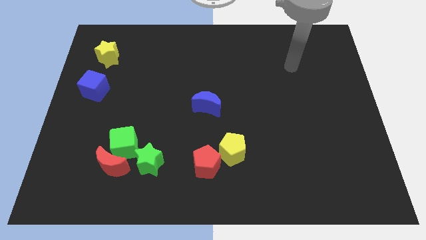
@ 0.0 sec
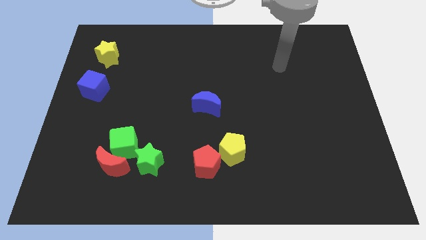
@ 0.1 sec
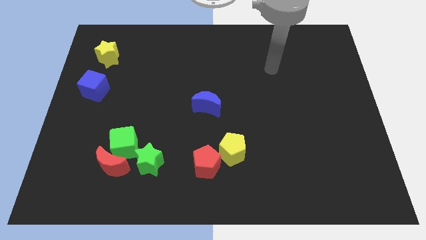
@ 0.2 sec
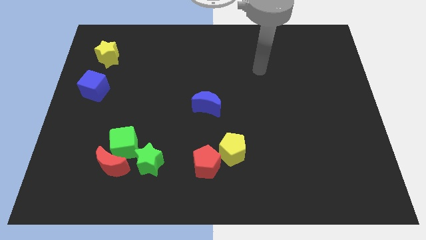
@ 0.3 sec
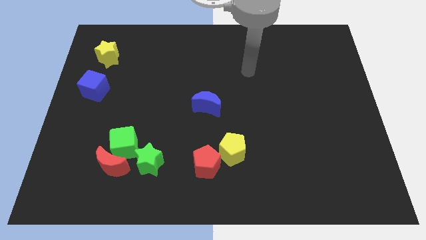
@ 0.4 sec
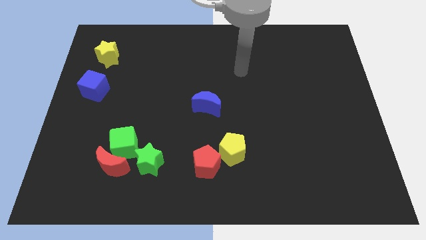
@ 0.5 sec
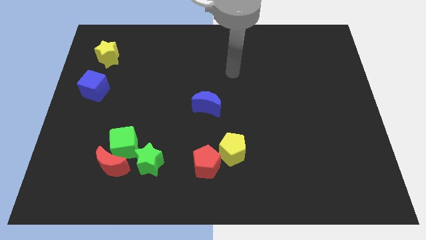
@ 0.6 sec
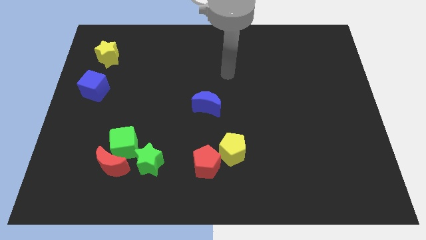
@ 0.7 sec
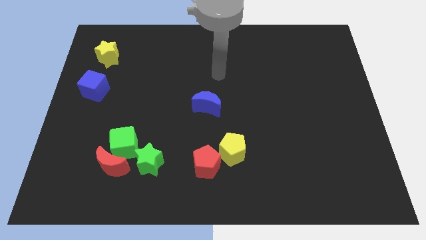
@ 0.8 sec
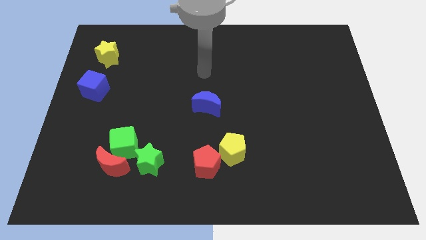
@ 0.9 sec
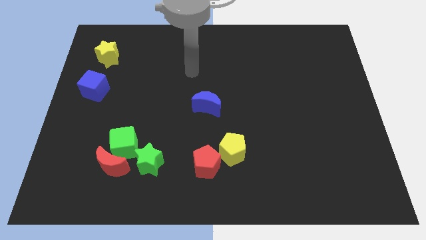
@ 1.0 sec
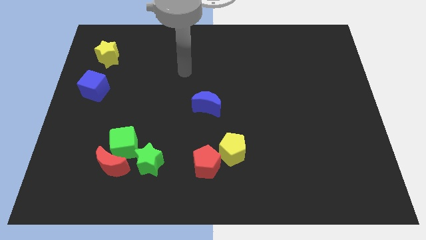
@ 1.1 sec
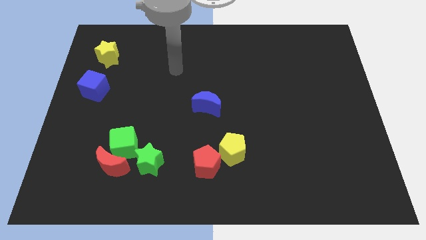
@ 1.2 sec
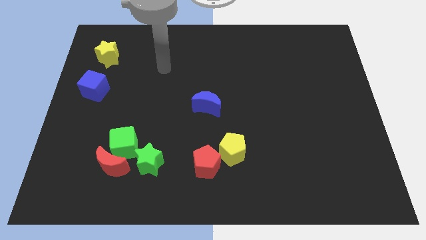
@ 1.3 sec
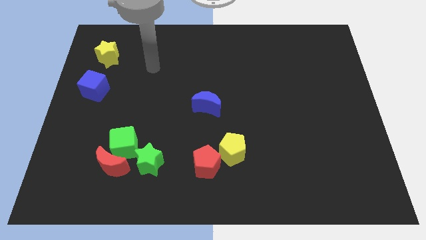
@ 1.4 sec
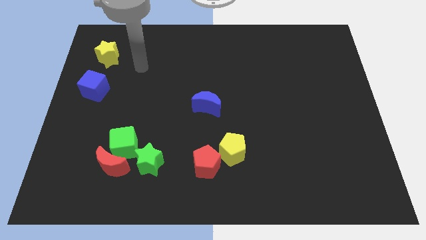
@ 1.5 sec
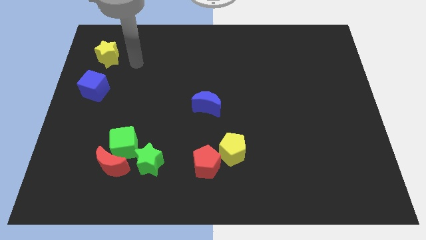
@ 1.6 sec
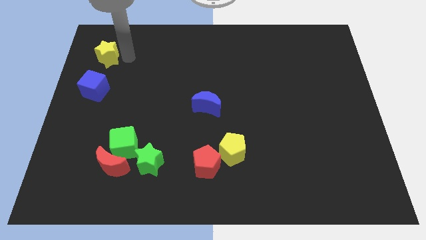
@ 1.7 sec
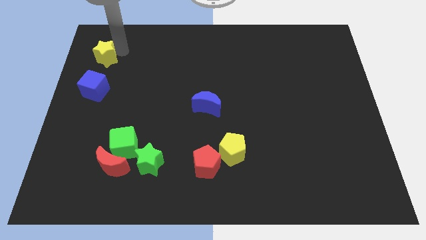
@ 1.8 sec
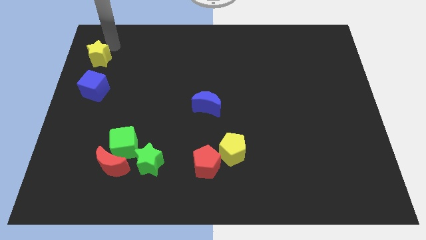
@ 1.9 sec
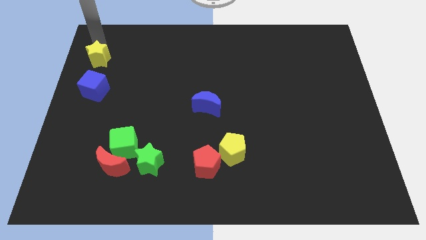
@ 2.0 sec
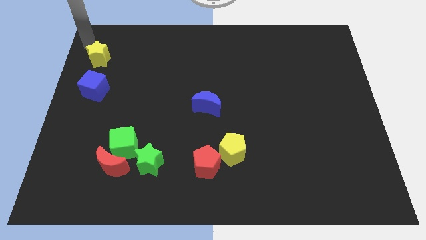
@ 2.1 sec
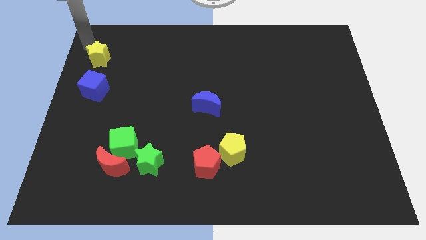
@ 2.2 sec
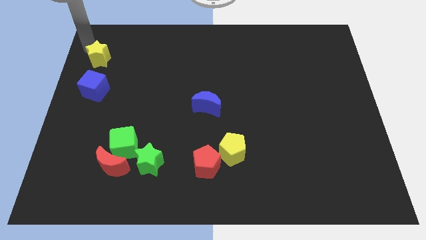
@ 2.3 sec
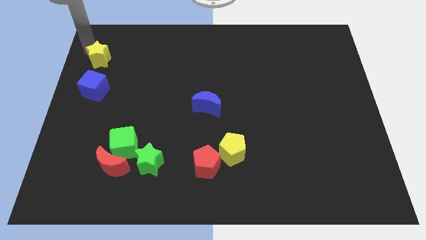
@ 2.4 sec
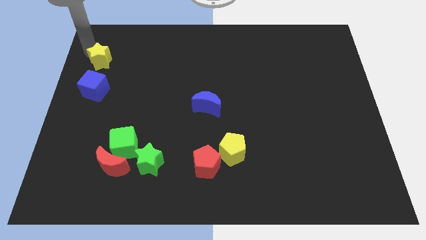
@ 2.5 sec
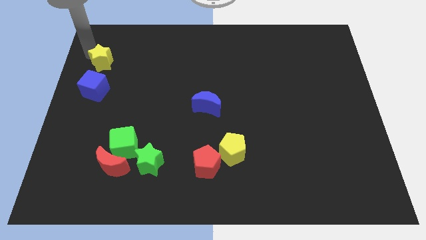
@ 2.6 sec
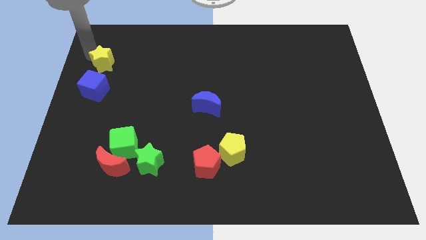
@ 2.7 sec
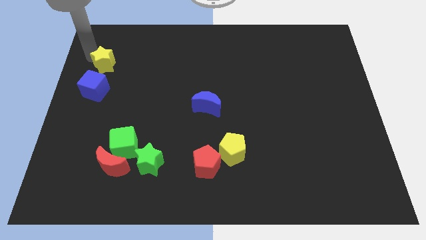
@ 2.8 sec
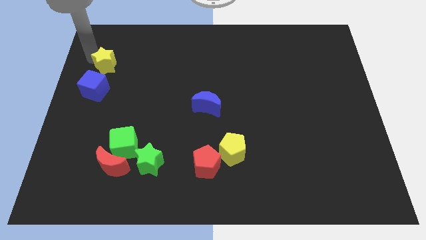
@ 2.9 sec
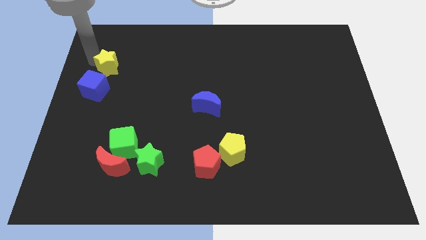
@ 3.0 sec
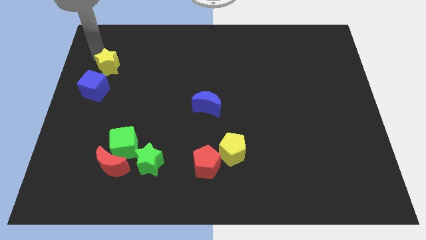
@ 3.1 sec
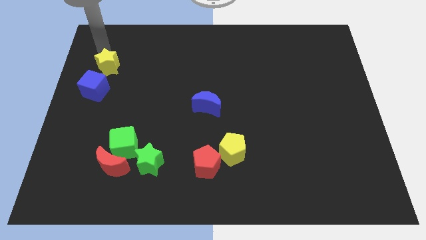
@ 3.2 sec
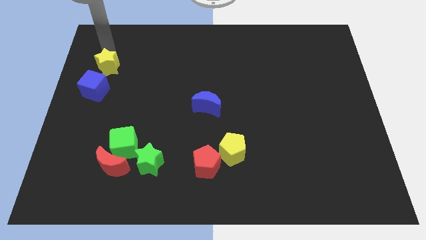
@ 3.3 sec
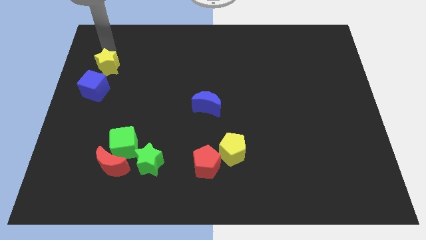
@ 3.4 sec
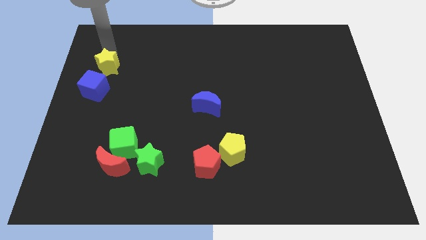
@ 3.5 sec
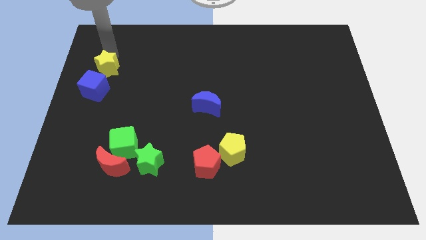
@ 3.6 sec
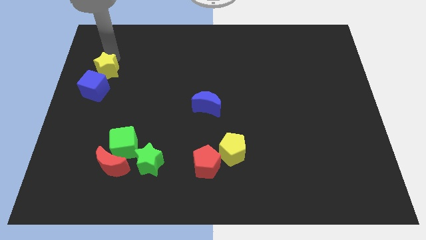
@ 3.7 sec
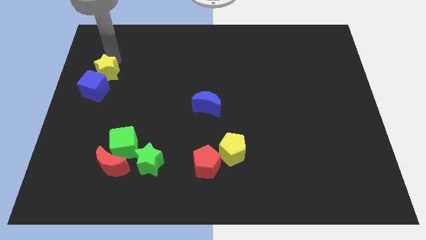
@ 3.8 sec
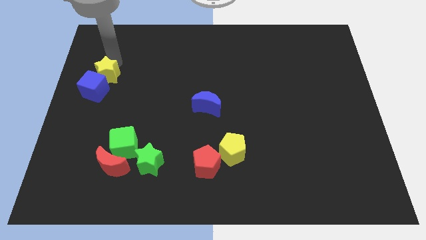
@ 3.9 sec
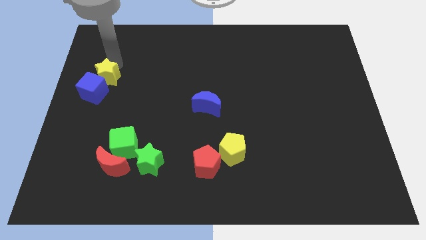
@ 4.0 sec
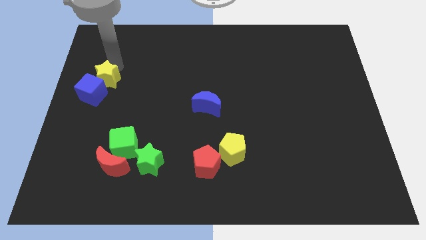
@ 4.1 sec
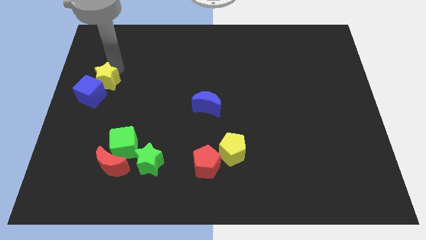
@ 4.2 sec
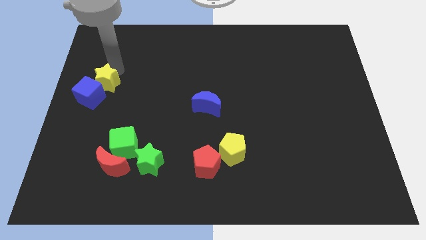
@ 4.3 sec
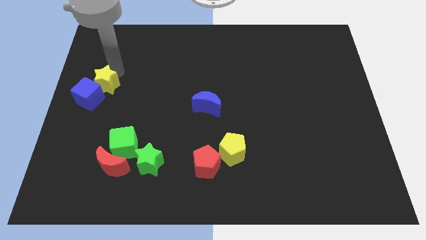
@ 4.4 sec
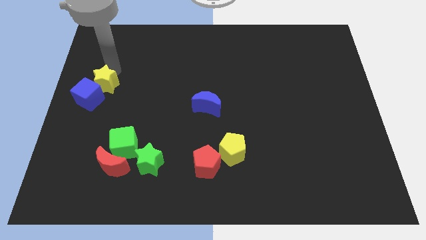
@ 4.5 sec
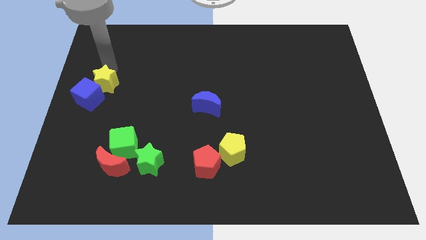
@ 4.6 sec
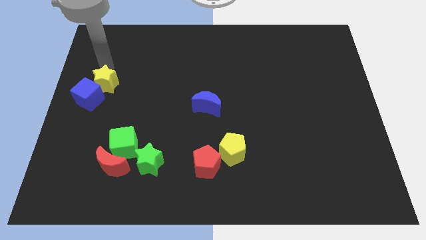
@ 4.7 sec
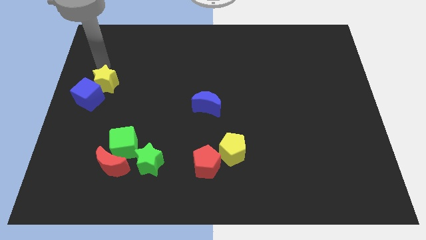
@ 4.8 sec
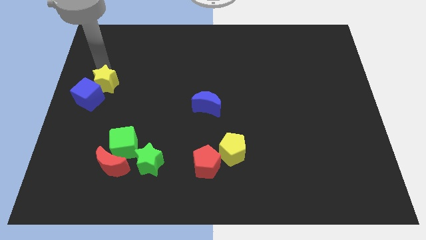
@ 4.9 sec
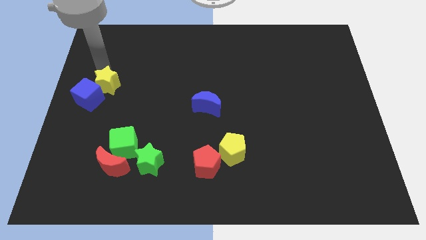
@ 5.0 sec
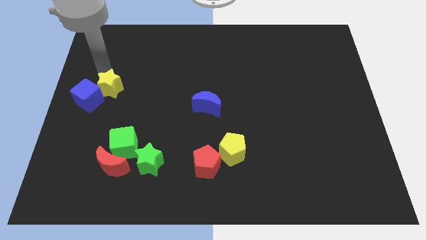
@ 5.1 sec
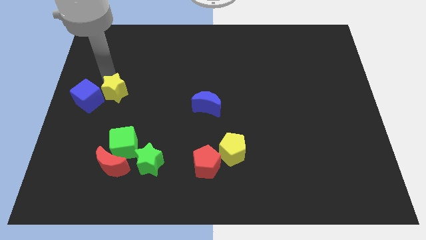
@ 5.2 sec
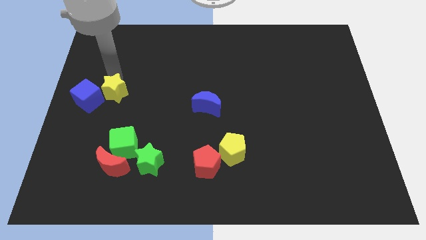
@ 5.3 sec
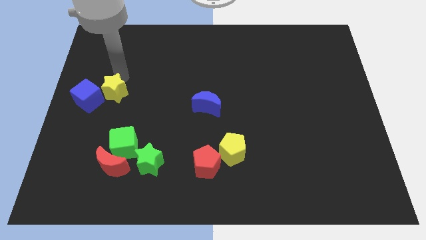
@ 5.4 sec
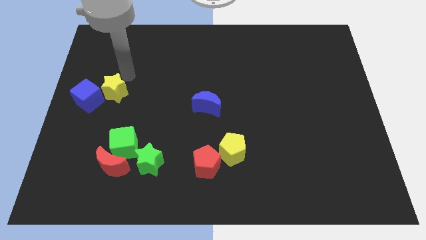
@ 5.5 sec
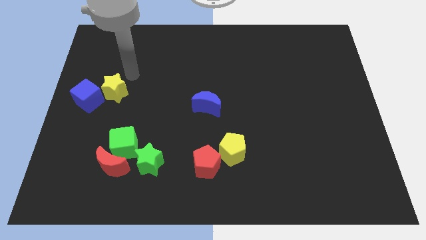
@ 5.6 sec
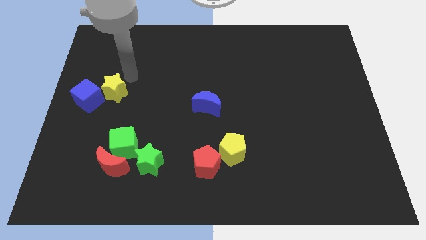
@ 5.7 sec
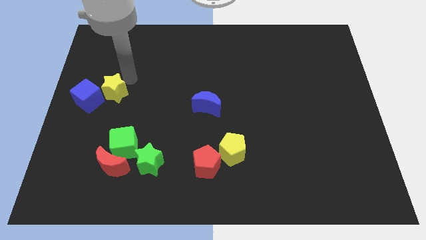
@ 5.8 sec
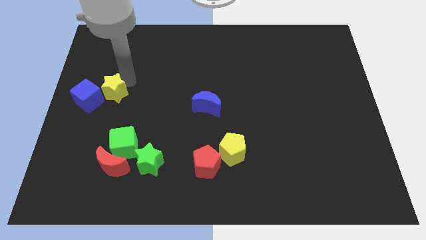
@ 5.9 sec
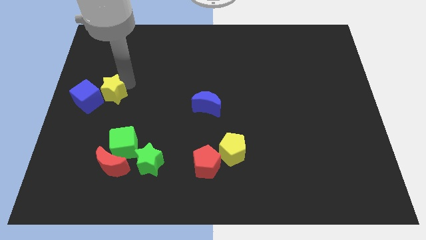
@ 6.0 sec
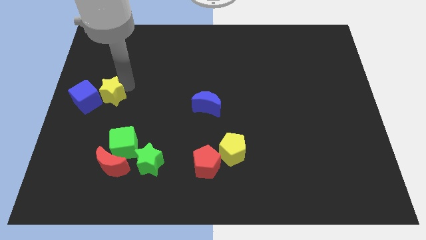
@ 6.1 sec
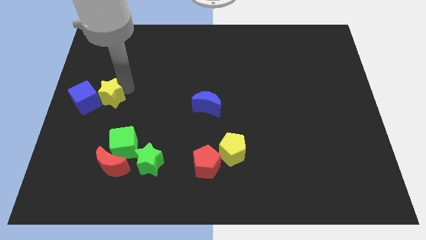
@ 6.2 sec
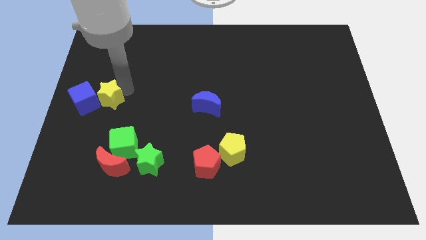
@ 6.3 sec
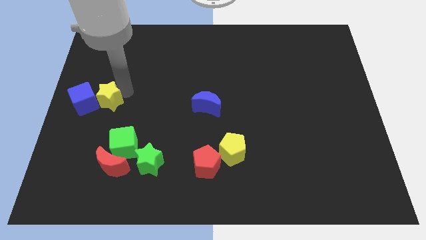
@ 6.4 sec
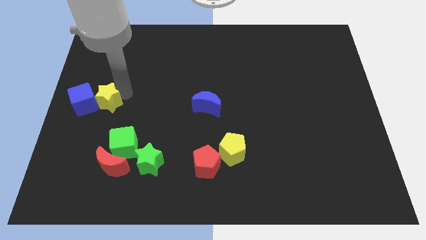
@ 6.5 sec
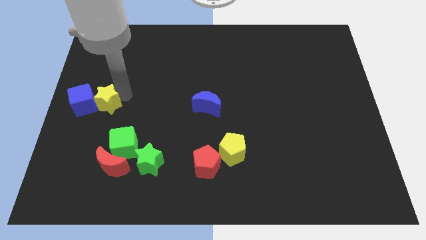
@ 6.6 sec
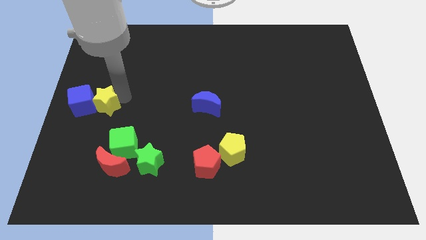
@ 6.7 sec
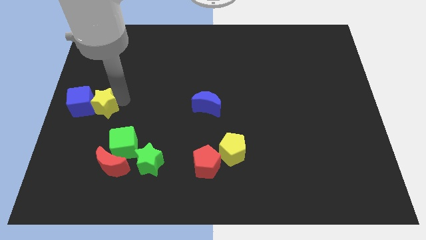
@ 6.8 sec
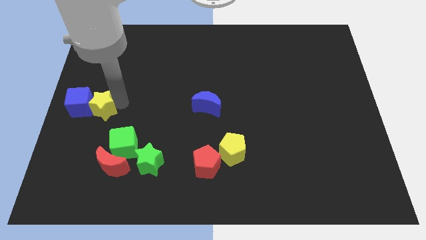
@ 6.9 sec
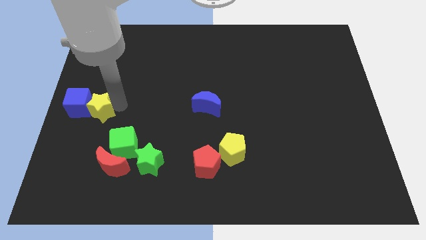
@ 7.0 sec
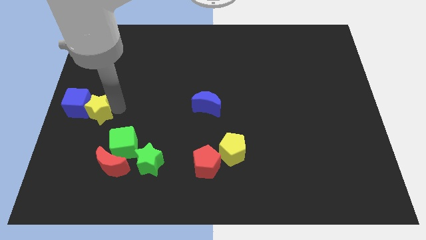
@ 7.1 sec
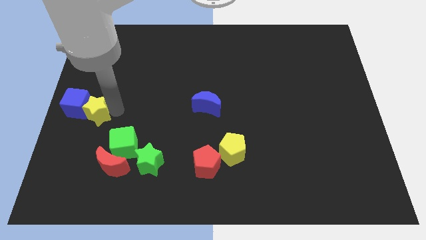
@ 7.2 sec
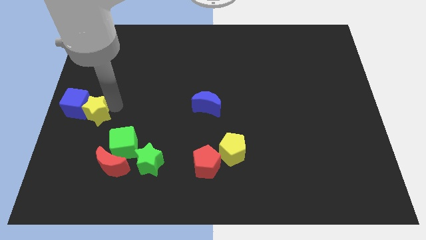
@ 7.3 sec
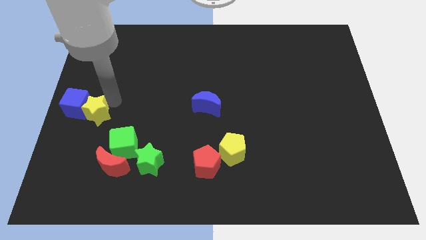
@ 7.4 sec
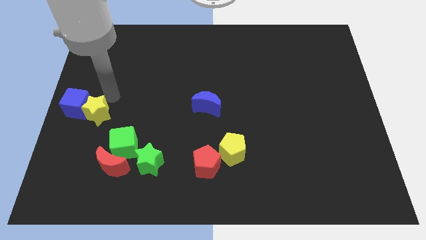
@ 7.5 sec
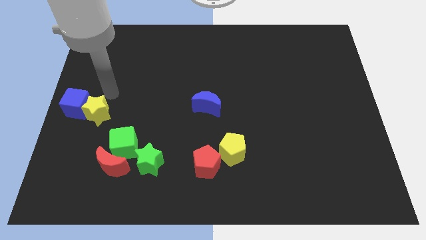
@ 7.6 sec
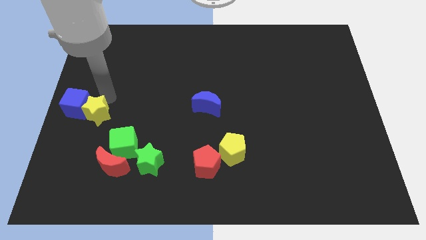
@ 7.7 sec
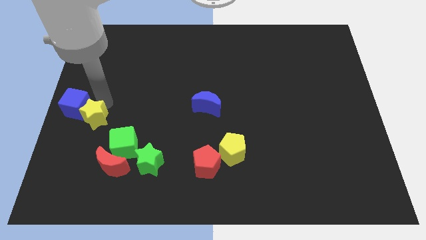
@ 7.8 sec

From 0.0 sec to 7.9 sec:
slide the yellow star down
